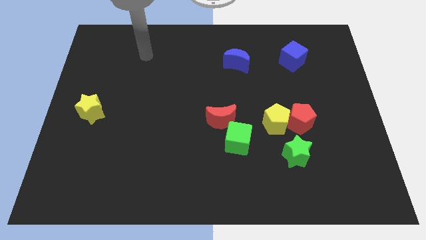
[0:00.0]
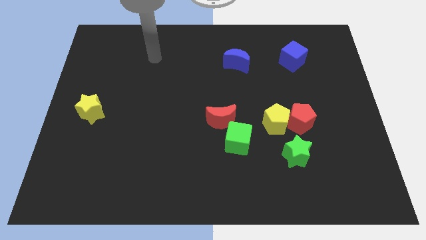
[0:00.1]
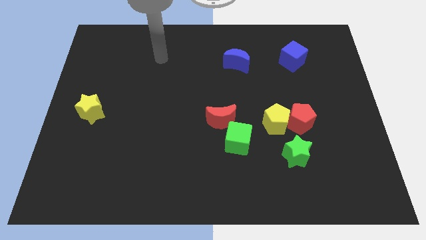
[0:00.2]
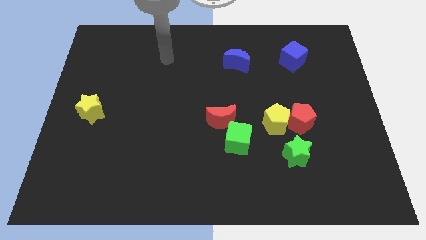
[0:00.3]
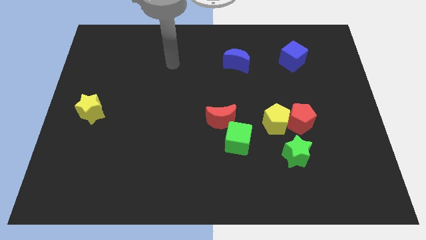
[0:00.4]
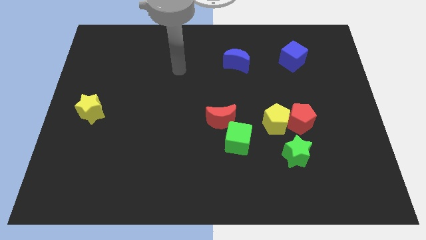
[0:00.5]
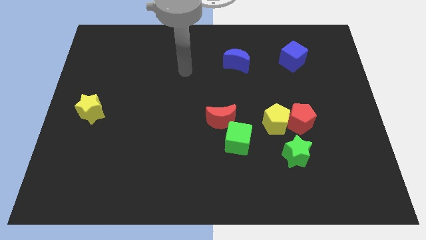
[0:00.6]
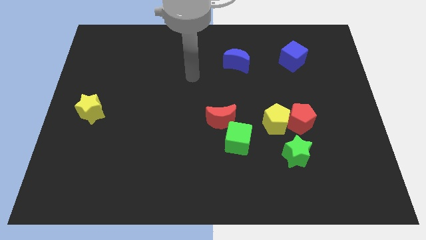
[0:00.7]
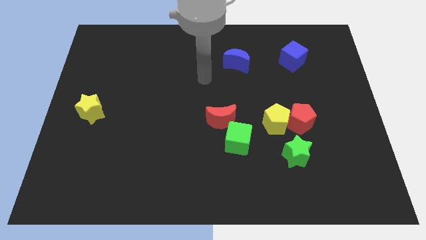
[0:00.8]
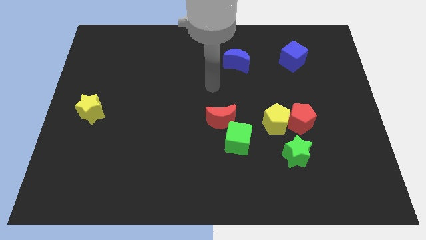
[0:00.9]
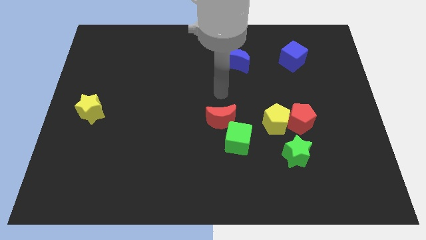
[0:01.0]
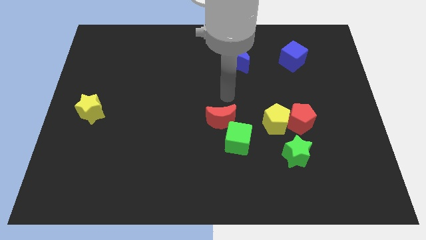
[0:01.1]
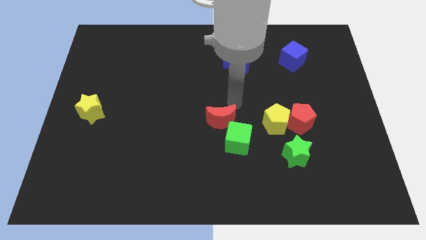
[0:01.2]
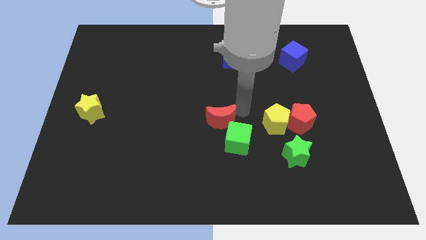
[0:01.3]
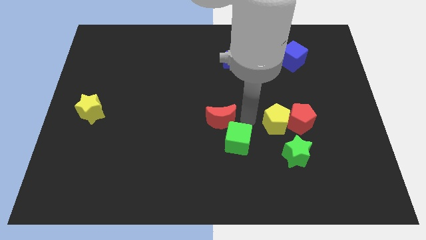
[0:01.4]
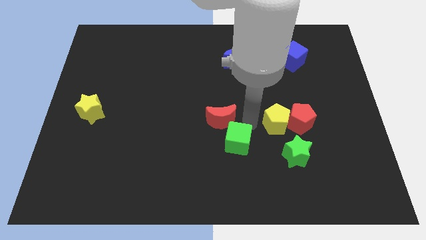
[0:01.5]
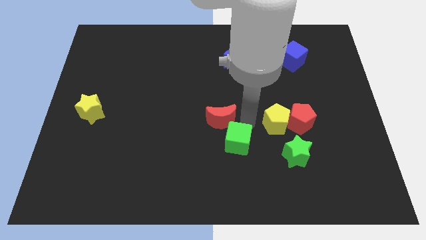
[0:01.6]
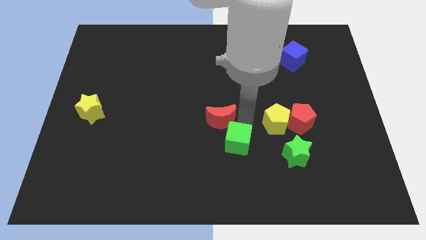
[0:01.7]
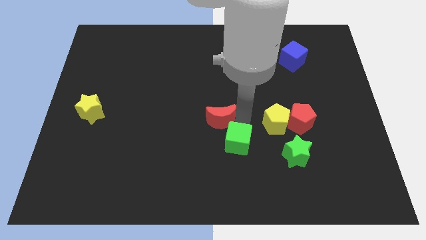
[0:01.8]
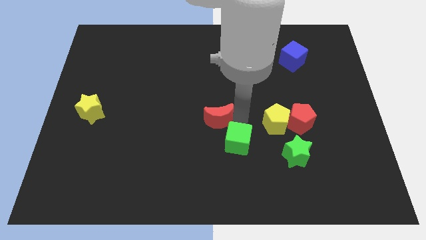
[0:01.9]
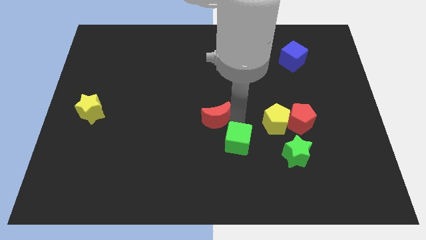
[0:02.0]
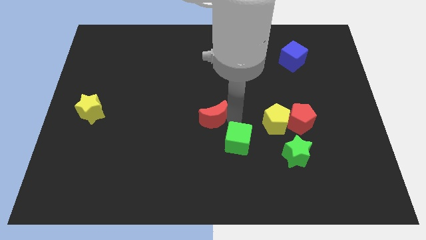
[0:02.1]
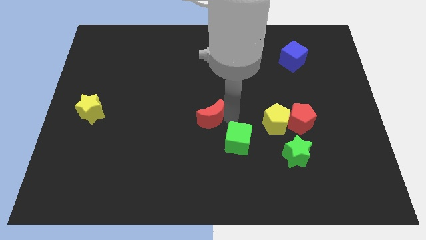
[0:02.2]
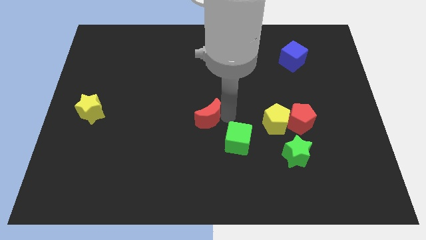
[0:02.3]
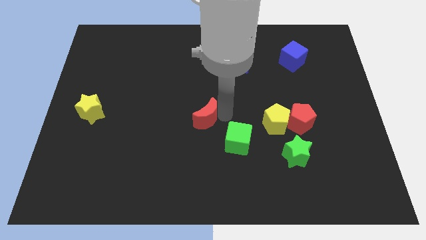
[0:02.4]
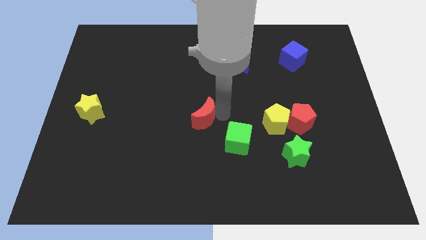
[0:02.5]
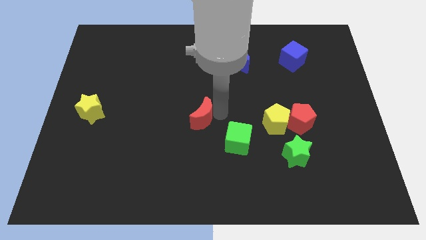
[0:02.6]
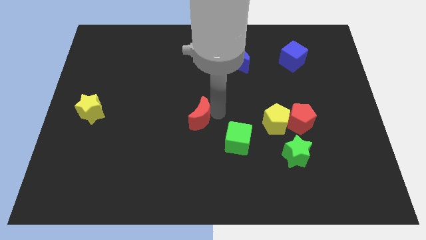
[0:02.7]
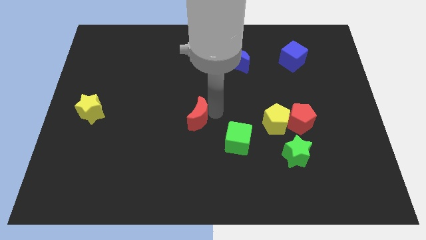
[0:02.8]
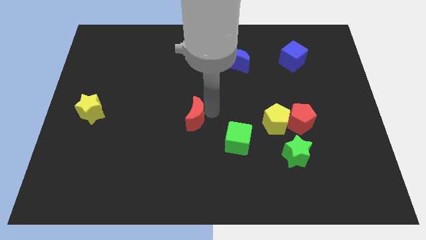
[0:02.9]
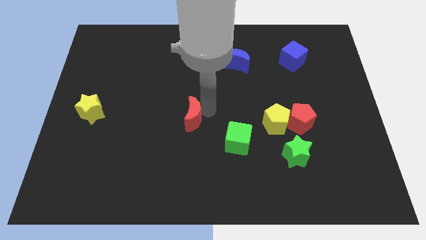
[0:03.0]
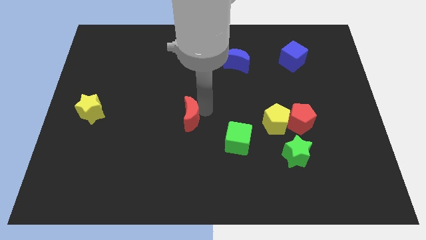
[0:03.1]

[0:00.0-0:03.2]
push the red moon left a little

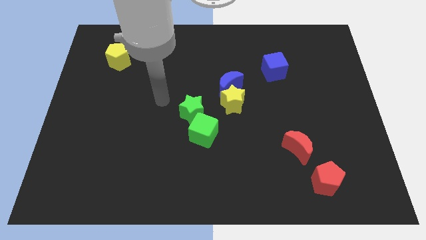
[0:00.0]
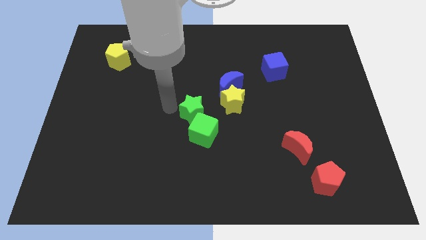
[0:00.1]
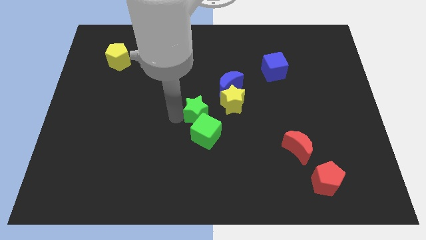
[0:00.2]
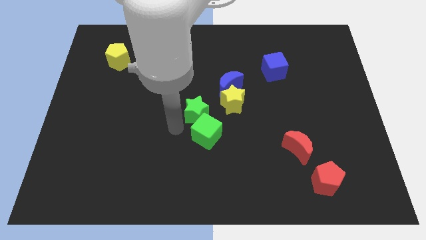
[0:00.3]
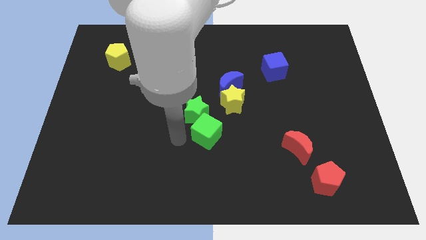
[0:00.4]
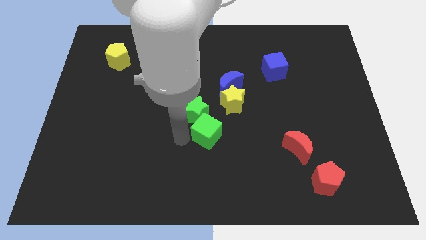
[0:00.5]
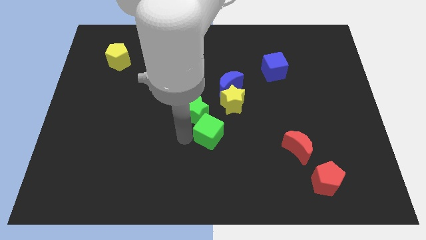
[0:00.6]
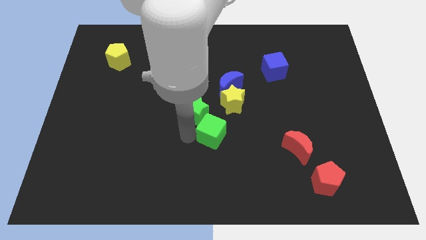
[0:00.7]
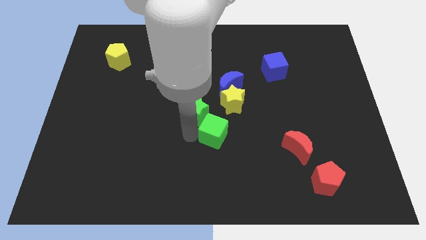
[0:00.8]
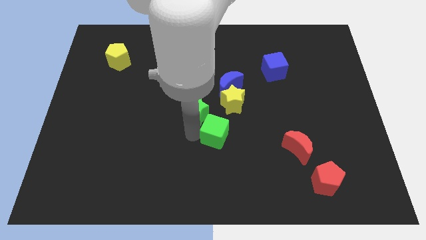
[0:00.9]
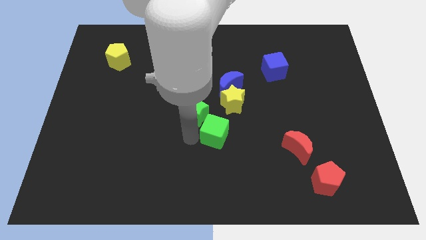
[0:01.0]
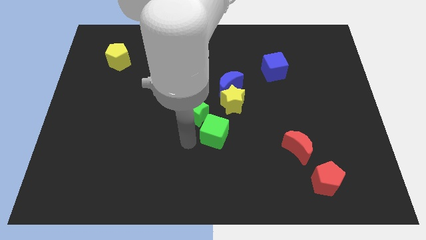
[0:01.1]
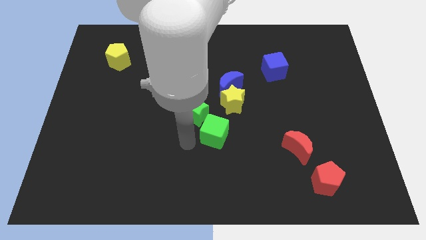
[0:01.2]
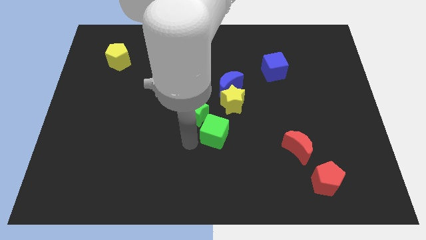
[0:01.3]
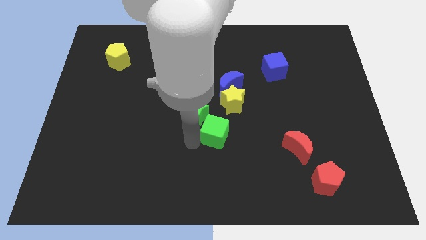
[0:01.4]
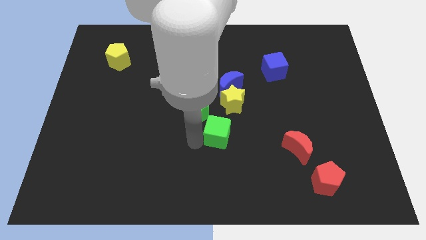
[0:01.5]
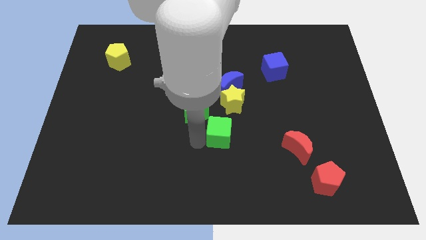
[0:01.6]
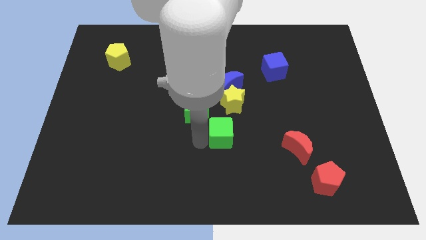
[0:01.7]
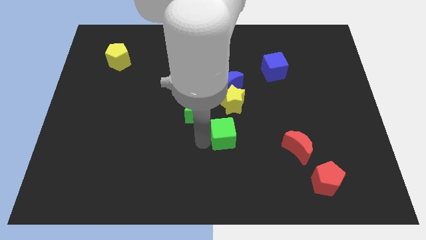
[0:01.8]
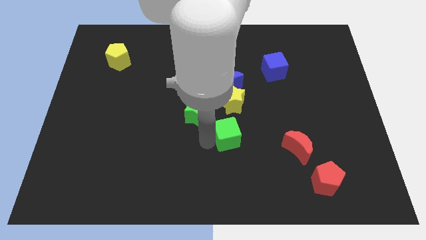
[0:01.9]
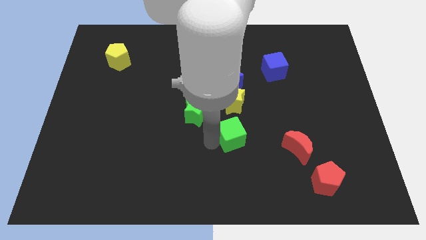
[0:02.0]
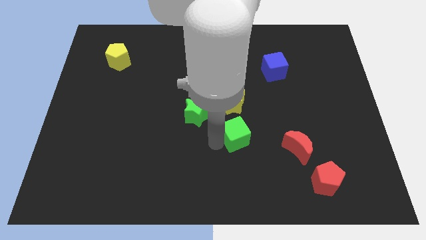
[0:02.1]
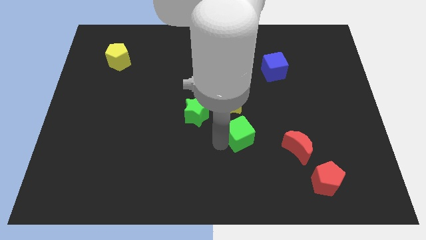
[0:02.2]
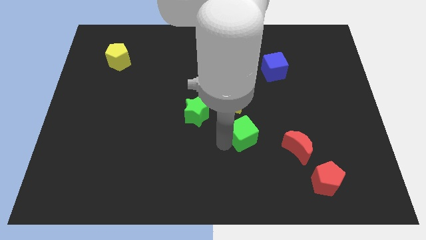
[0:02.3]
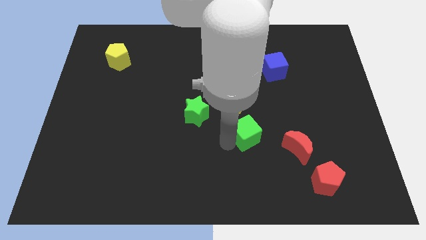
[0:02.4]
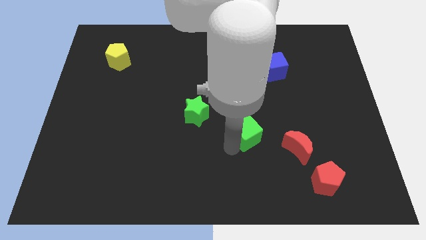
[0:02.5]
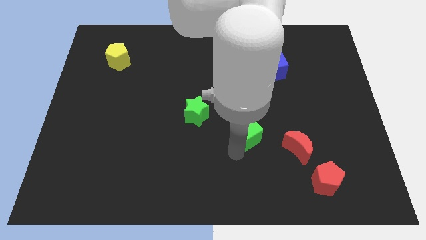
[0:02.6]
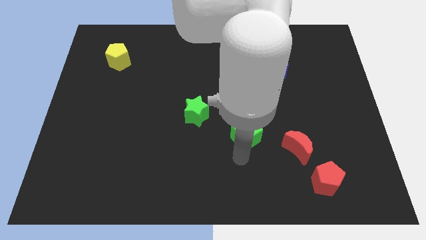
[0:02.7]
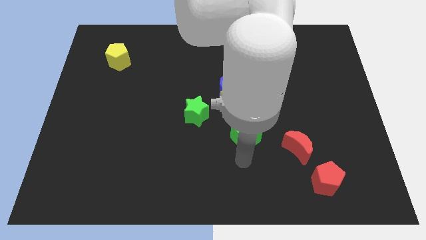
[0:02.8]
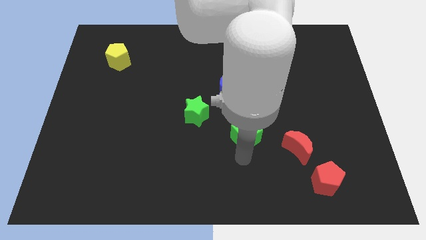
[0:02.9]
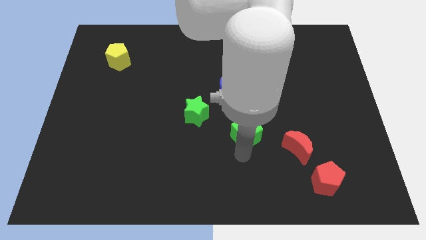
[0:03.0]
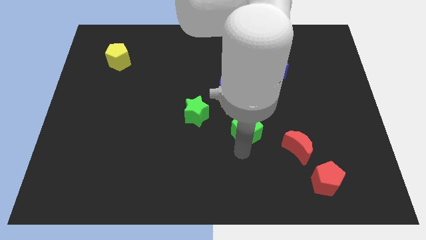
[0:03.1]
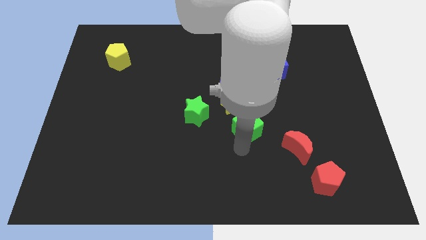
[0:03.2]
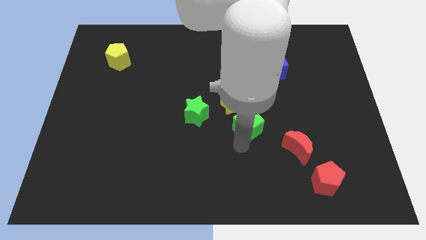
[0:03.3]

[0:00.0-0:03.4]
slide the green cube diagonally up and right a little

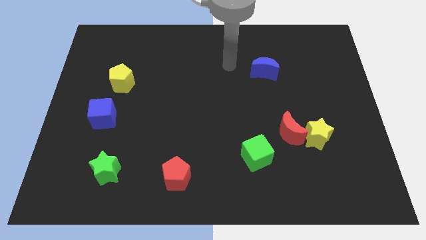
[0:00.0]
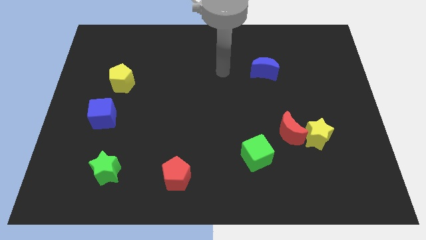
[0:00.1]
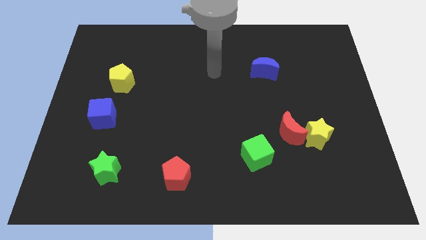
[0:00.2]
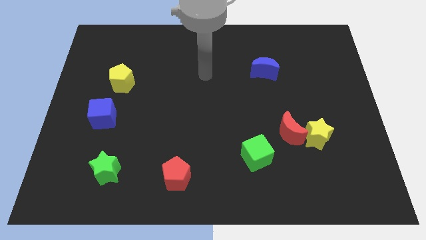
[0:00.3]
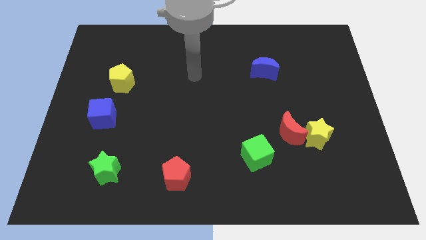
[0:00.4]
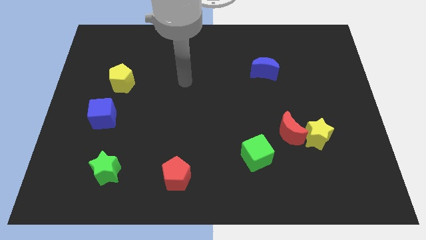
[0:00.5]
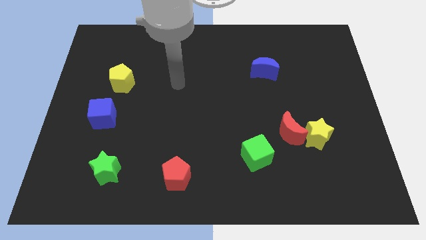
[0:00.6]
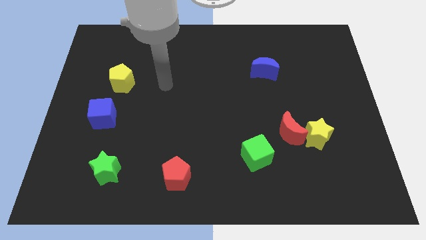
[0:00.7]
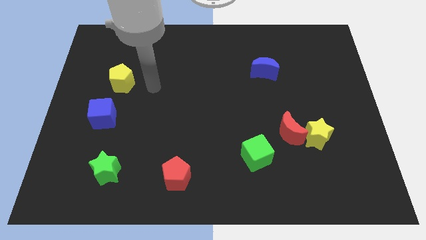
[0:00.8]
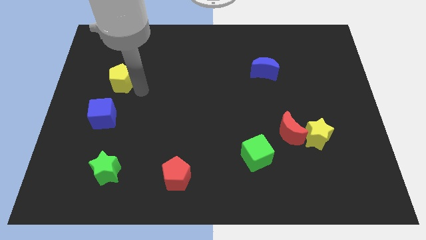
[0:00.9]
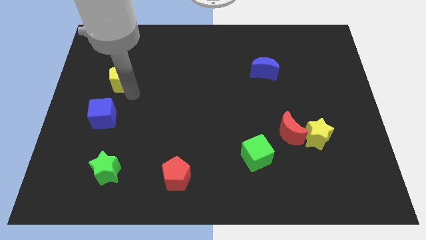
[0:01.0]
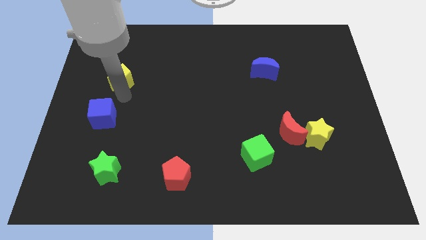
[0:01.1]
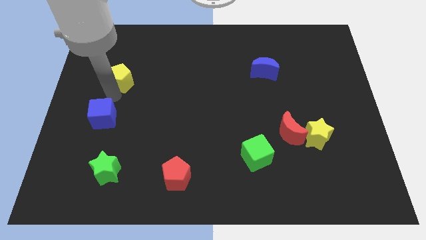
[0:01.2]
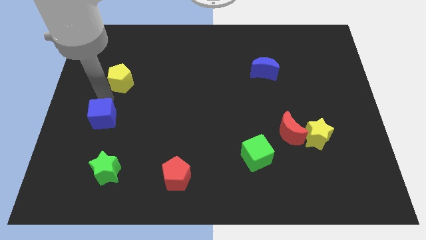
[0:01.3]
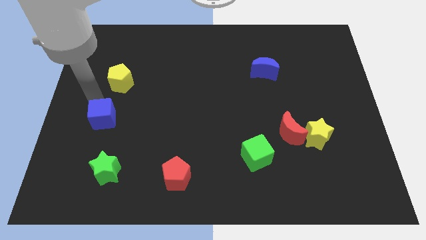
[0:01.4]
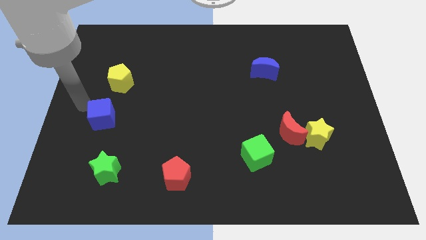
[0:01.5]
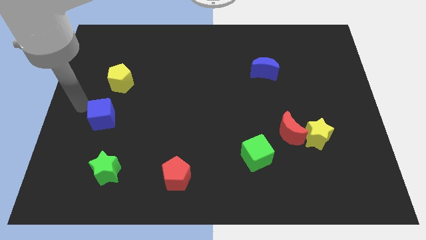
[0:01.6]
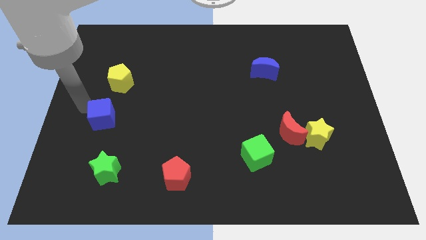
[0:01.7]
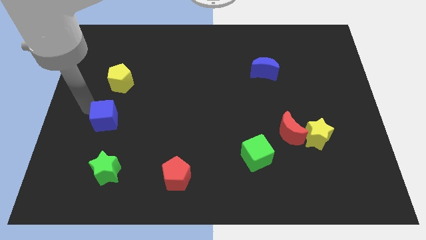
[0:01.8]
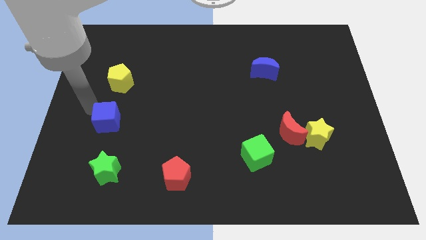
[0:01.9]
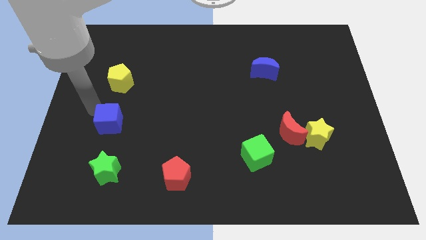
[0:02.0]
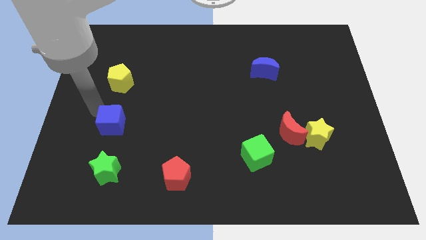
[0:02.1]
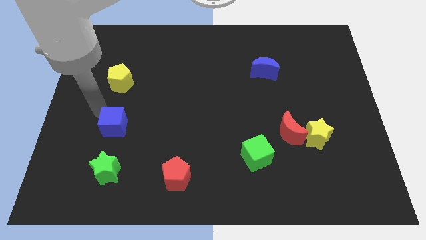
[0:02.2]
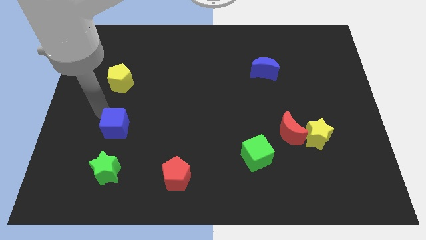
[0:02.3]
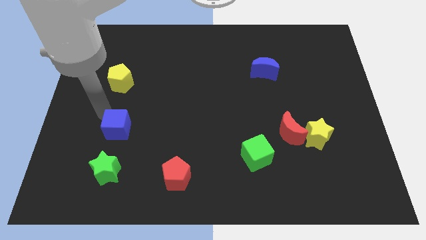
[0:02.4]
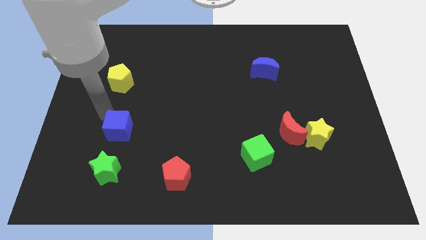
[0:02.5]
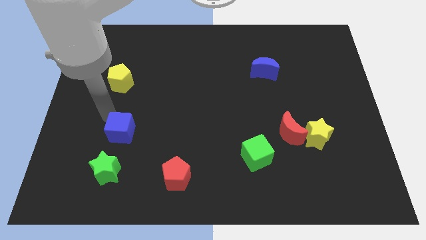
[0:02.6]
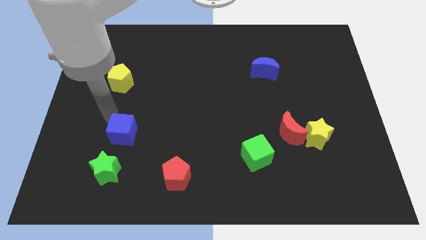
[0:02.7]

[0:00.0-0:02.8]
move the blue cube a bit diagonally down and right
